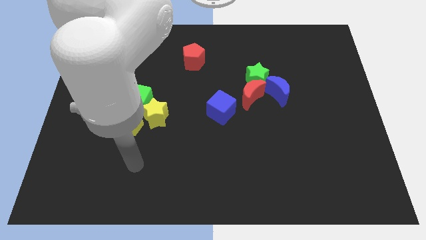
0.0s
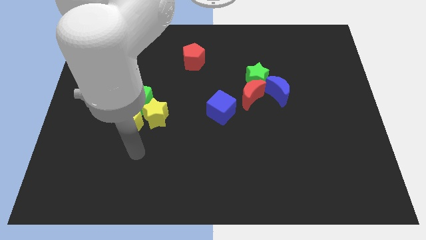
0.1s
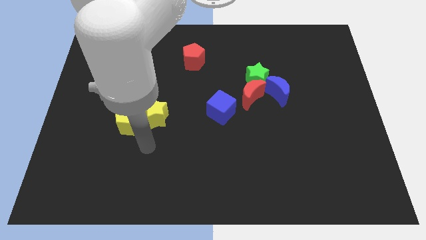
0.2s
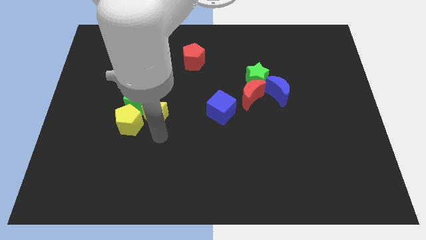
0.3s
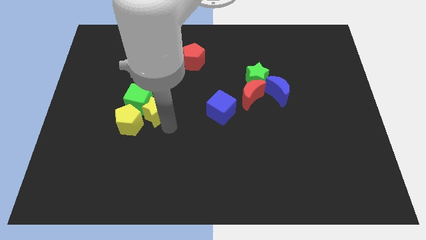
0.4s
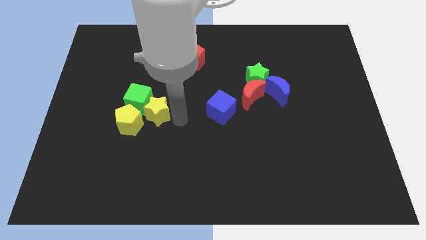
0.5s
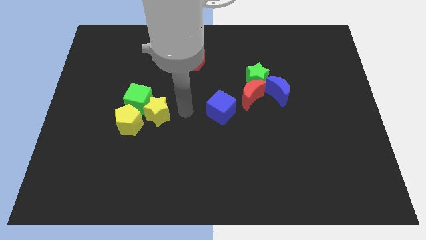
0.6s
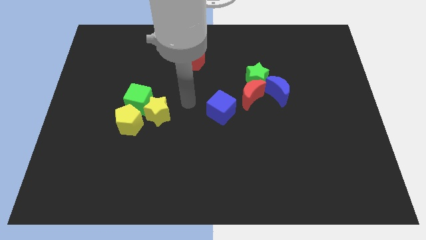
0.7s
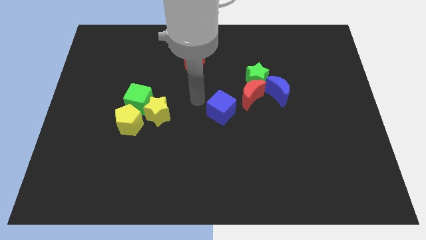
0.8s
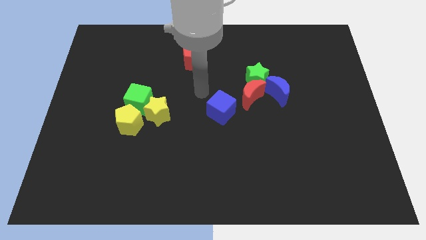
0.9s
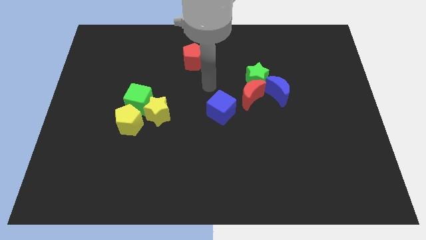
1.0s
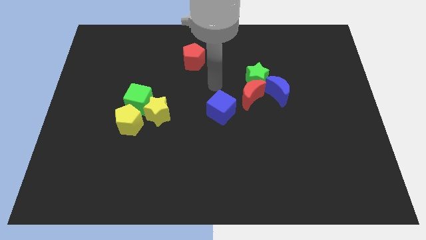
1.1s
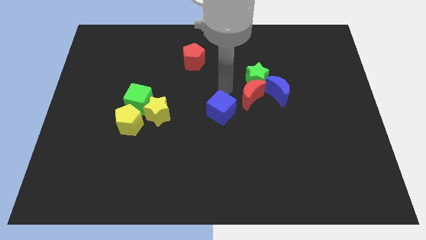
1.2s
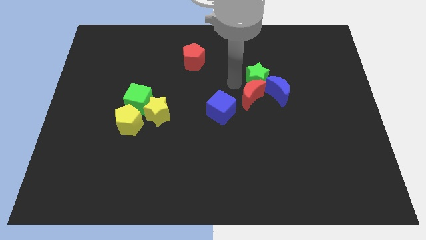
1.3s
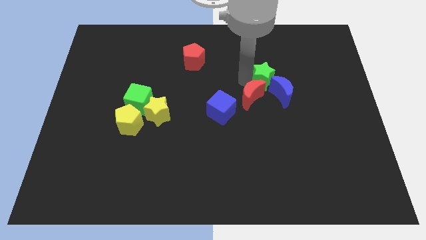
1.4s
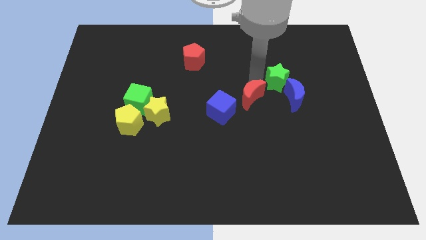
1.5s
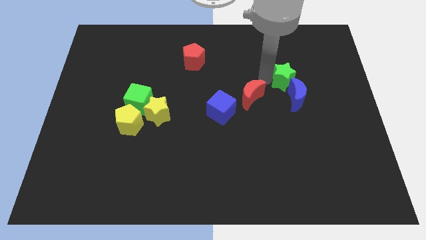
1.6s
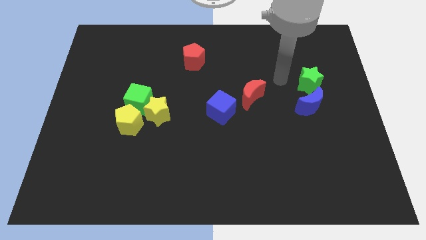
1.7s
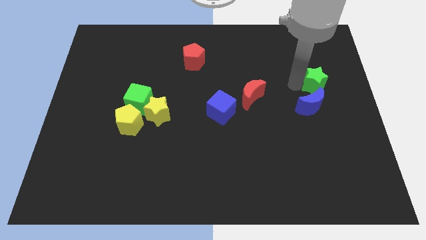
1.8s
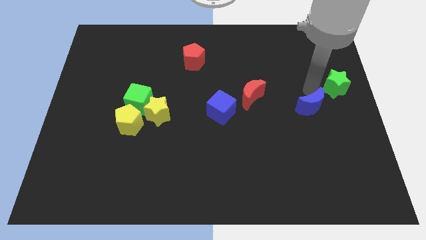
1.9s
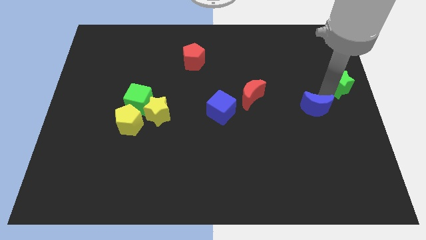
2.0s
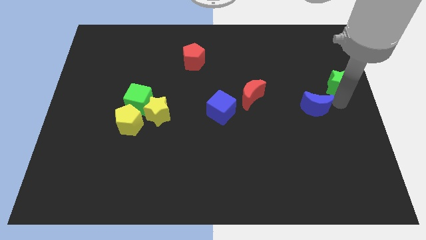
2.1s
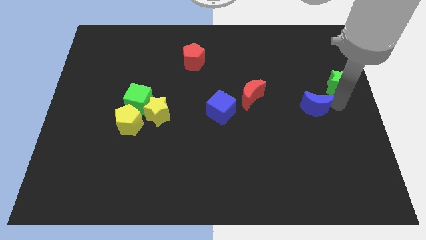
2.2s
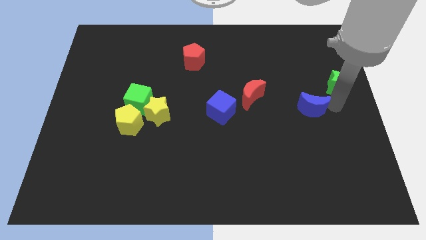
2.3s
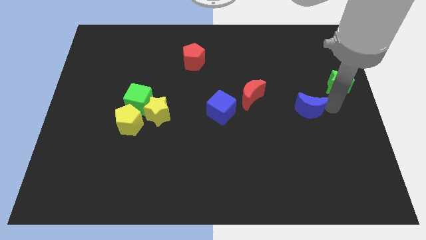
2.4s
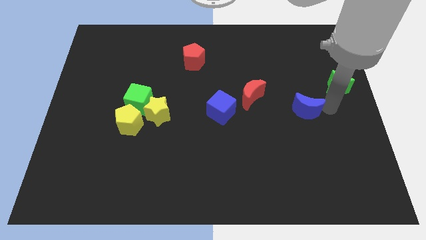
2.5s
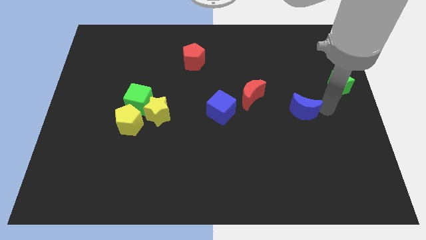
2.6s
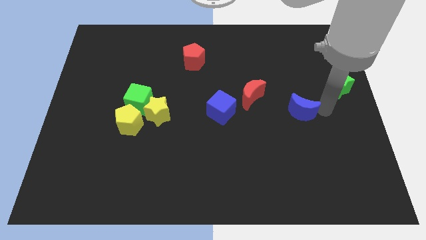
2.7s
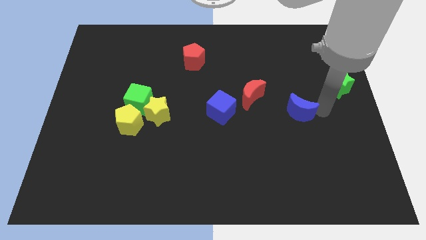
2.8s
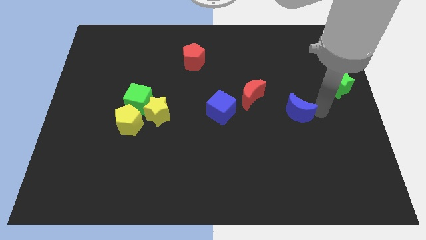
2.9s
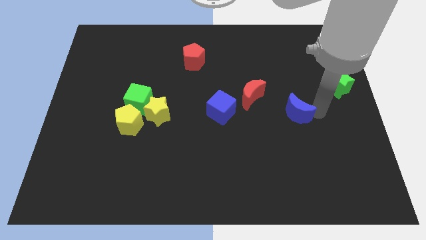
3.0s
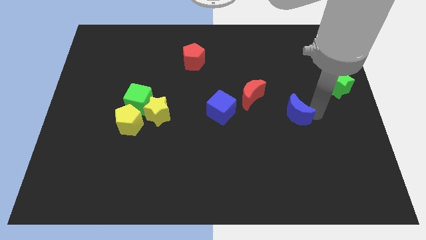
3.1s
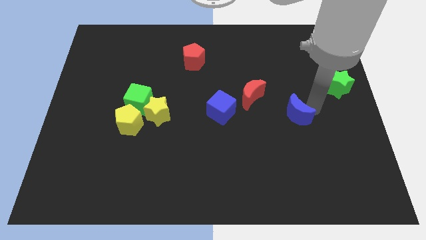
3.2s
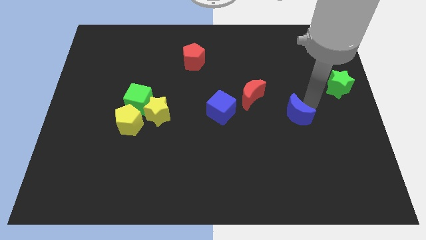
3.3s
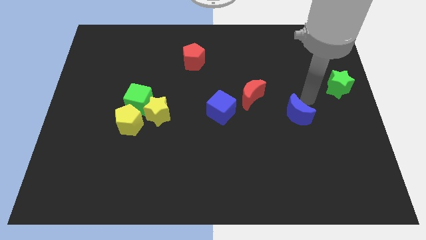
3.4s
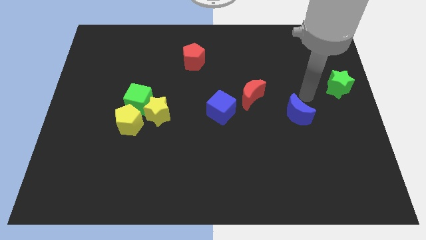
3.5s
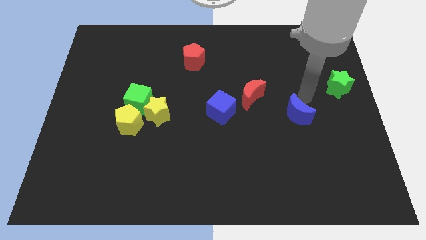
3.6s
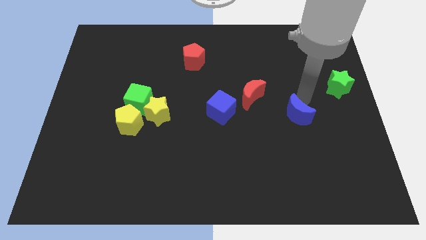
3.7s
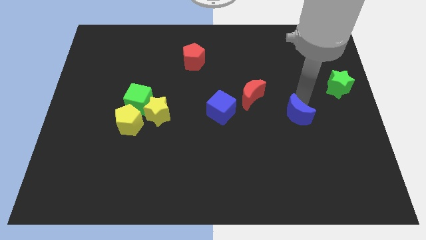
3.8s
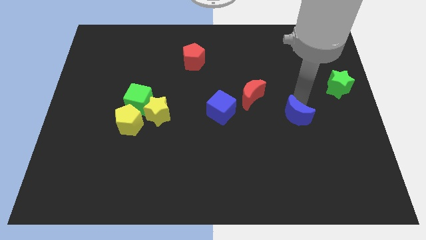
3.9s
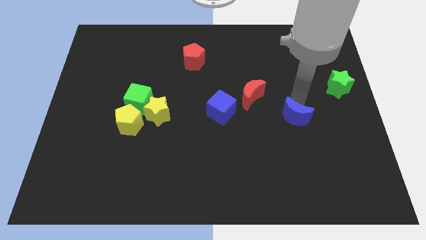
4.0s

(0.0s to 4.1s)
slide the blue moon a bit downwards

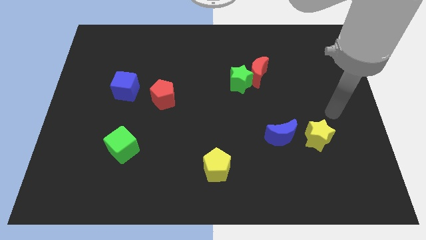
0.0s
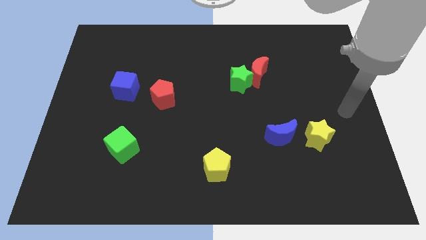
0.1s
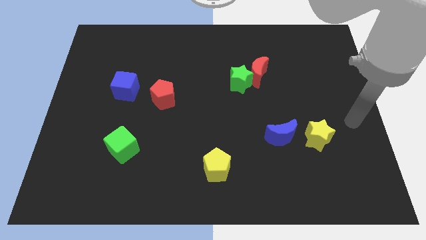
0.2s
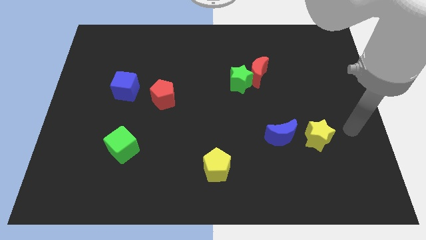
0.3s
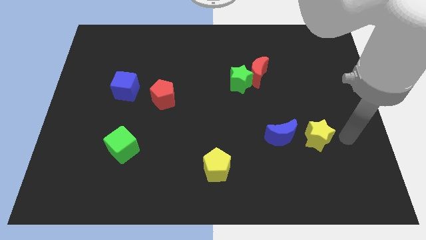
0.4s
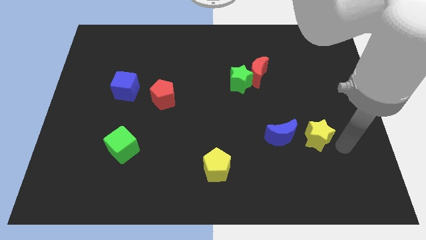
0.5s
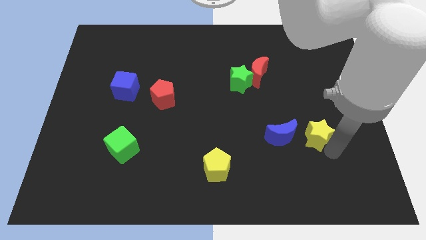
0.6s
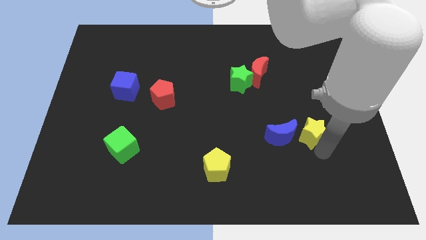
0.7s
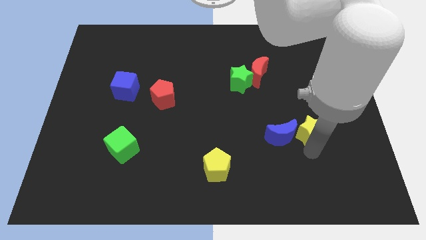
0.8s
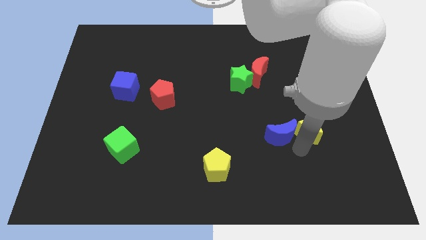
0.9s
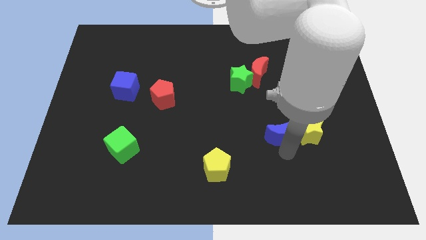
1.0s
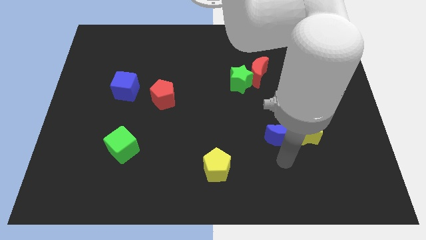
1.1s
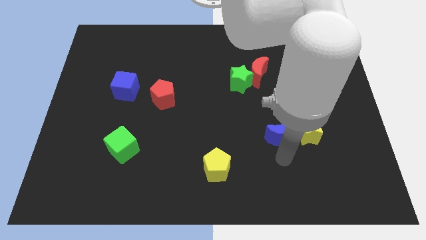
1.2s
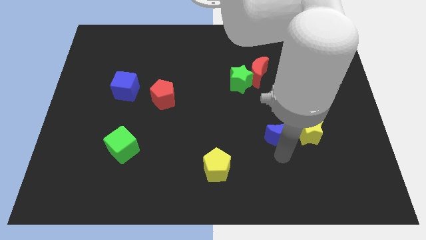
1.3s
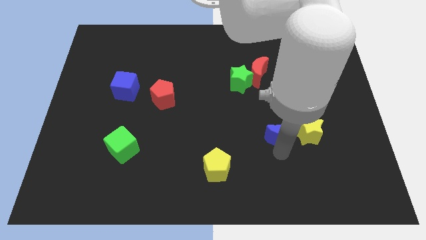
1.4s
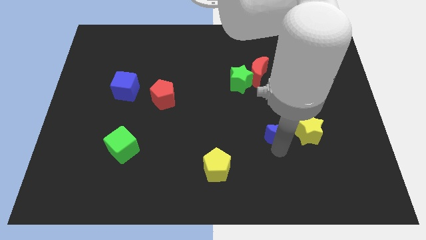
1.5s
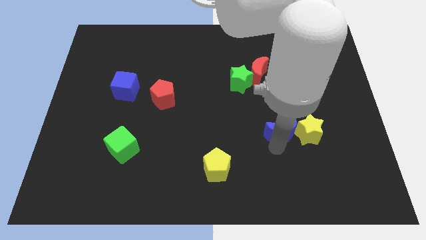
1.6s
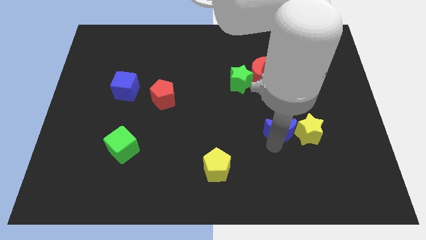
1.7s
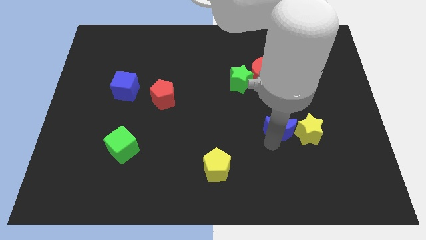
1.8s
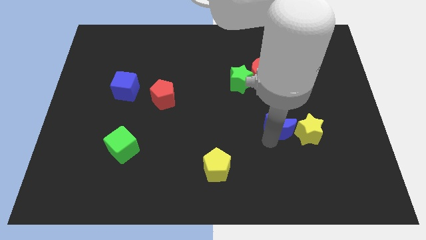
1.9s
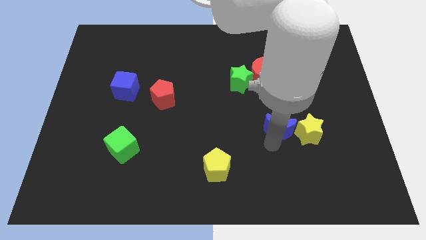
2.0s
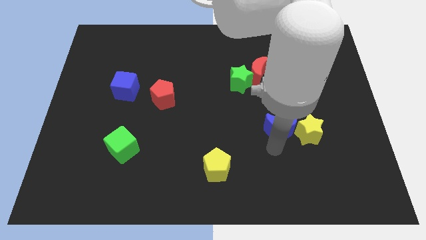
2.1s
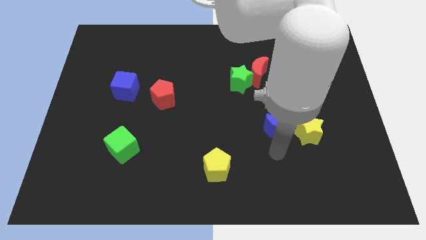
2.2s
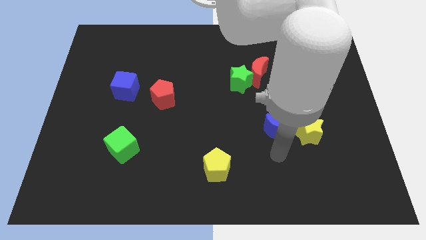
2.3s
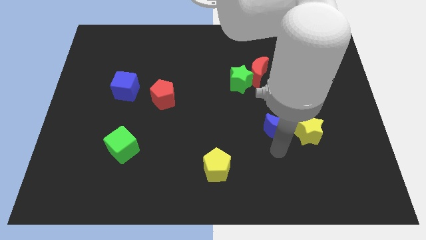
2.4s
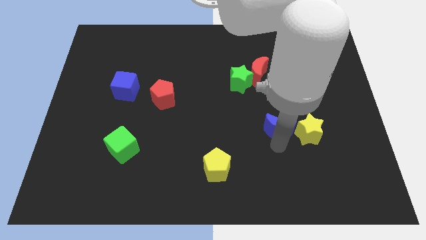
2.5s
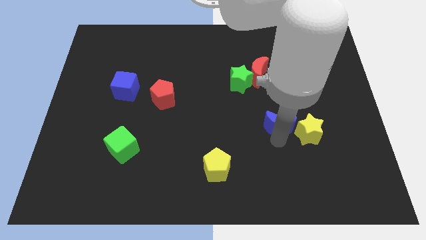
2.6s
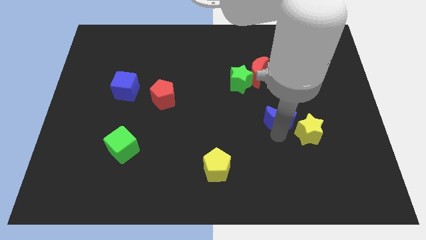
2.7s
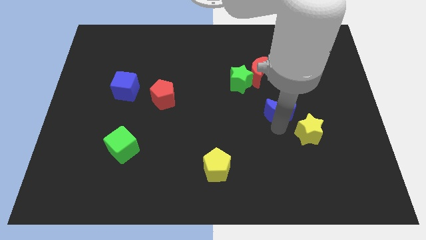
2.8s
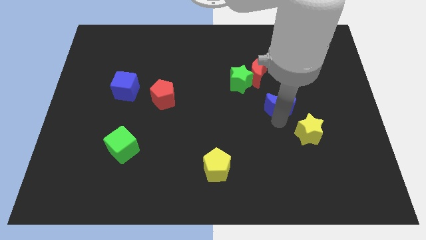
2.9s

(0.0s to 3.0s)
move the blue moon a little upwards

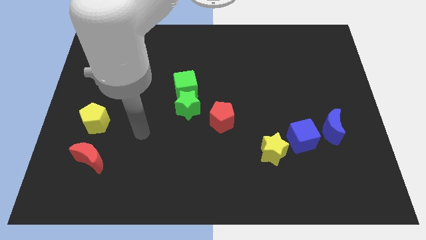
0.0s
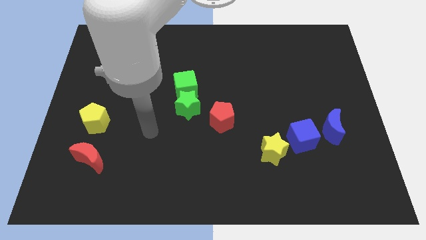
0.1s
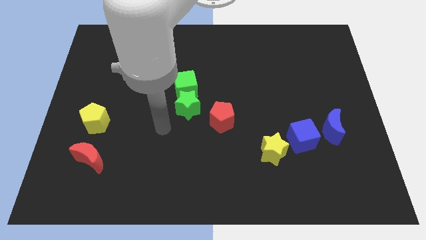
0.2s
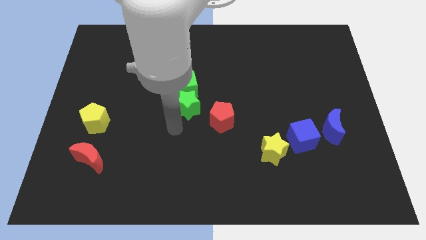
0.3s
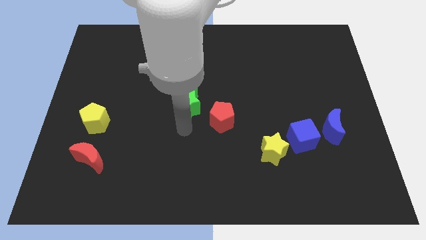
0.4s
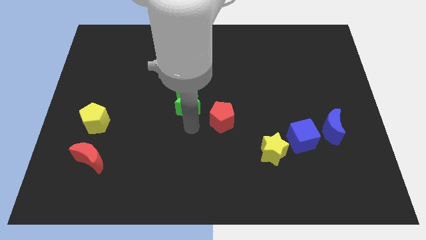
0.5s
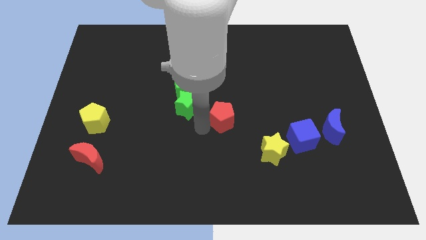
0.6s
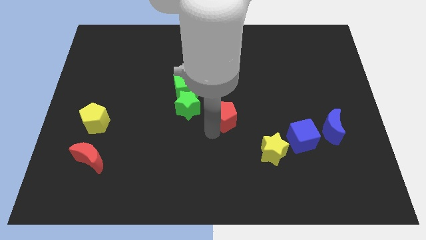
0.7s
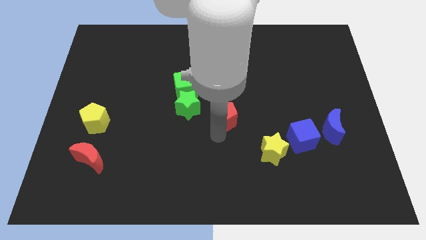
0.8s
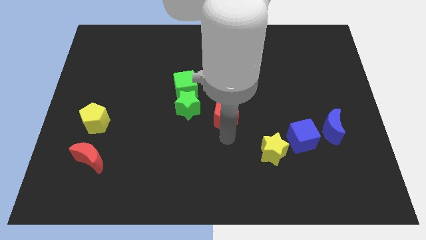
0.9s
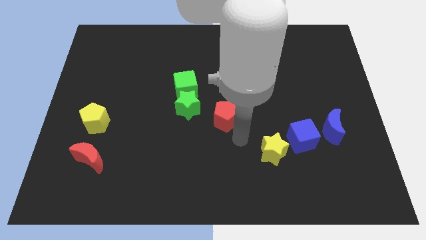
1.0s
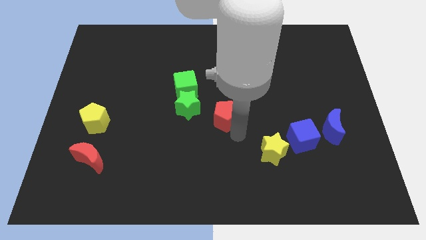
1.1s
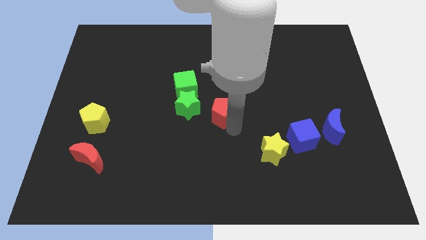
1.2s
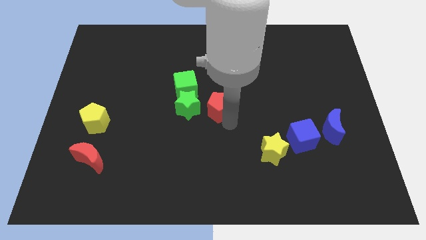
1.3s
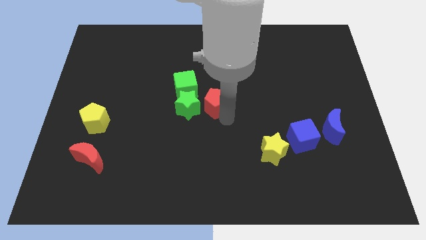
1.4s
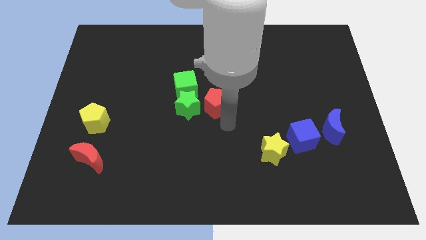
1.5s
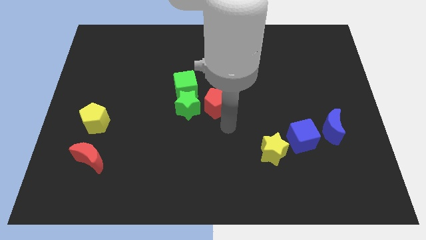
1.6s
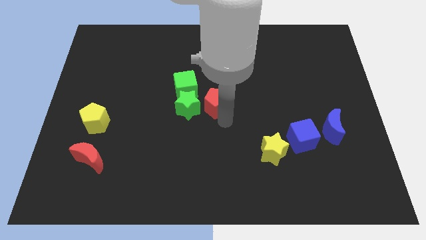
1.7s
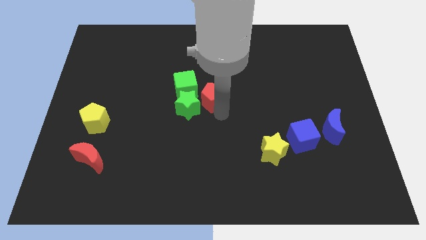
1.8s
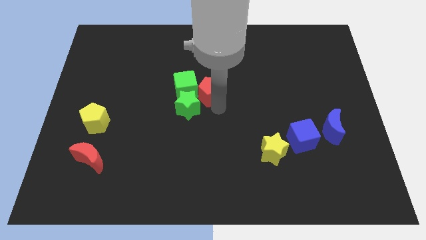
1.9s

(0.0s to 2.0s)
move the red pentagon slightly diagonally upwards and to the left
